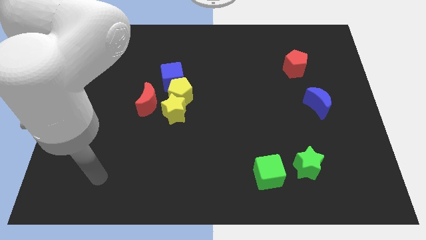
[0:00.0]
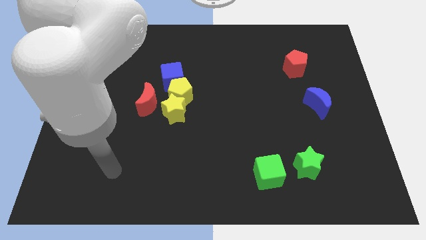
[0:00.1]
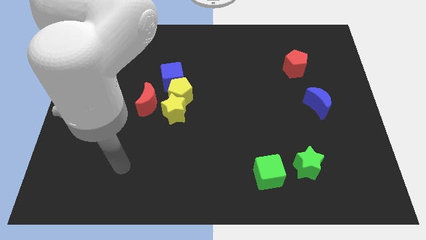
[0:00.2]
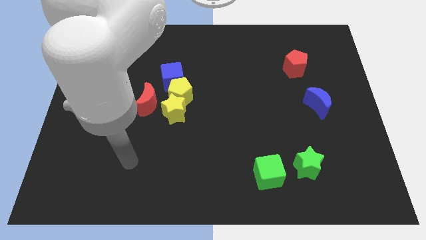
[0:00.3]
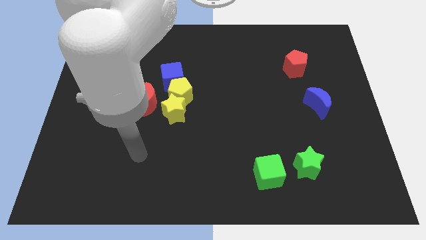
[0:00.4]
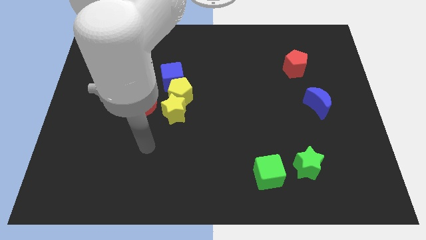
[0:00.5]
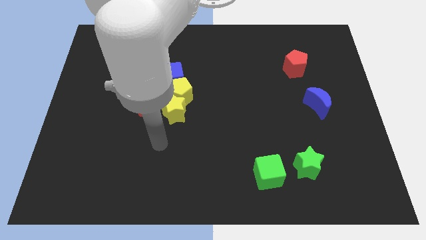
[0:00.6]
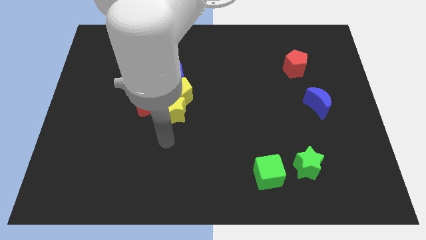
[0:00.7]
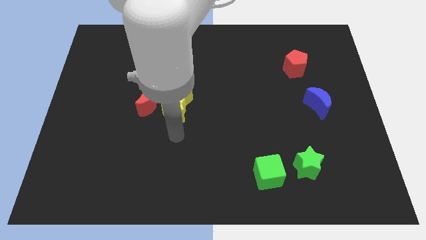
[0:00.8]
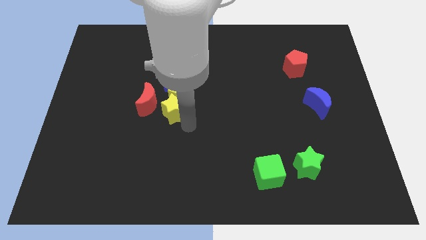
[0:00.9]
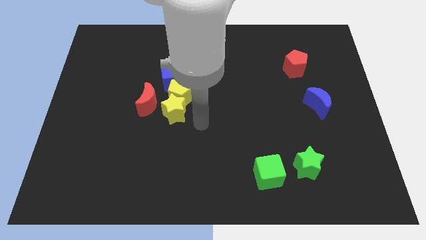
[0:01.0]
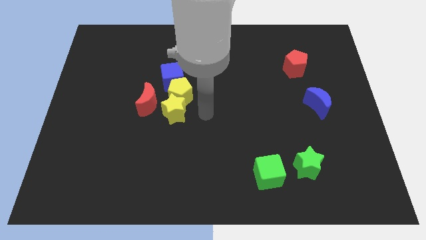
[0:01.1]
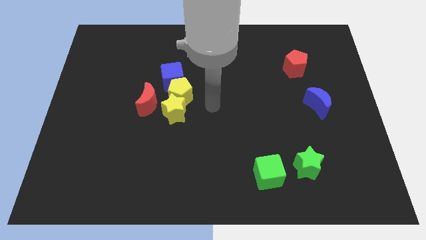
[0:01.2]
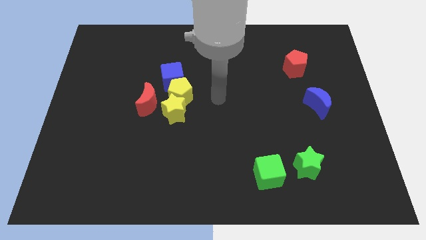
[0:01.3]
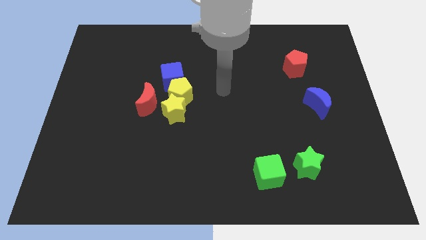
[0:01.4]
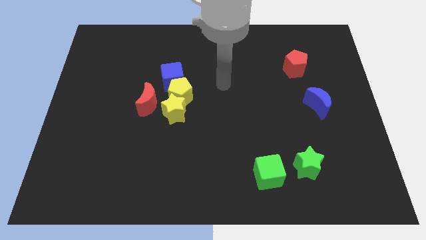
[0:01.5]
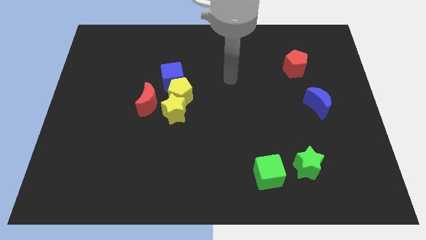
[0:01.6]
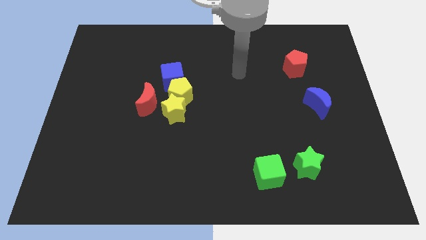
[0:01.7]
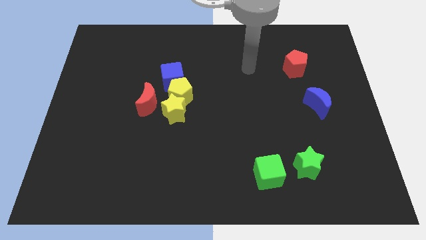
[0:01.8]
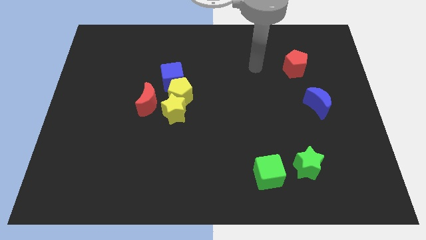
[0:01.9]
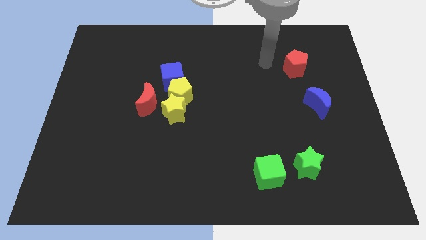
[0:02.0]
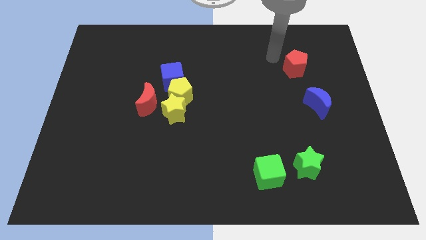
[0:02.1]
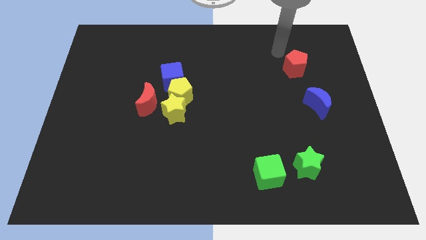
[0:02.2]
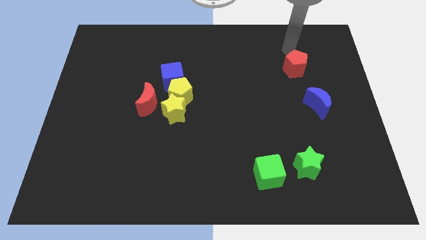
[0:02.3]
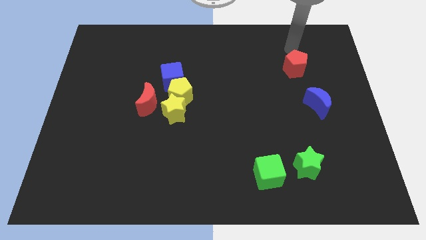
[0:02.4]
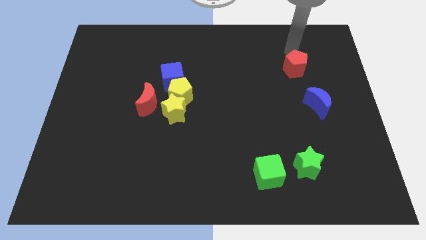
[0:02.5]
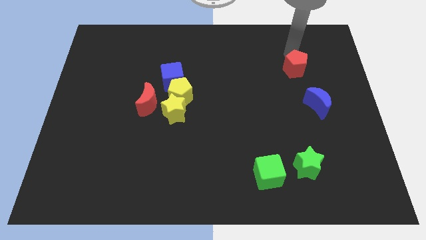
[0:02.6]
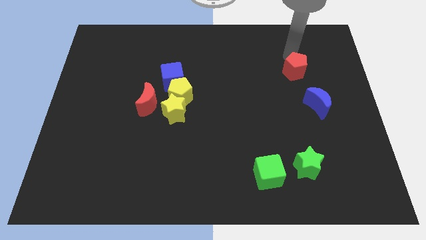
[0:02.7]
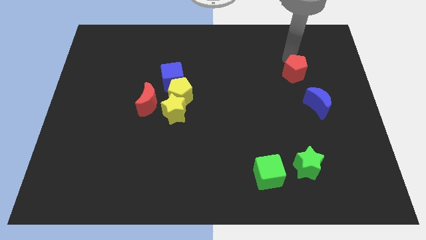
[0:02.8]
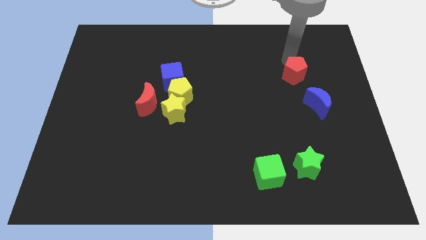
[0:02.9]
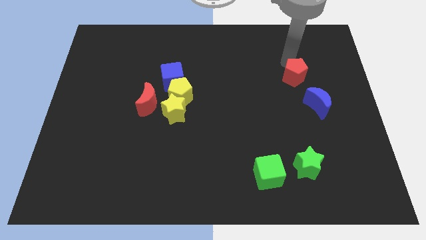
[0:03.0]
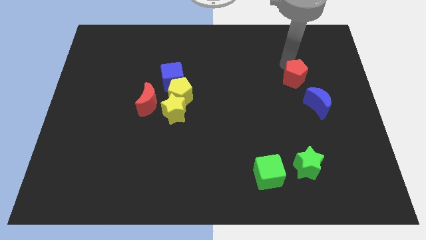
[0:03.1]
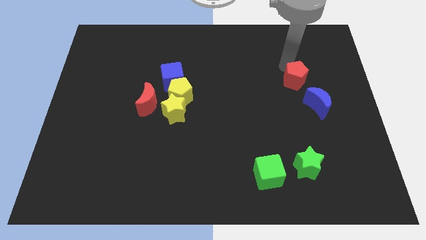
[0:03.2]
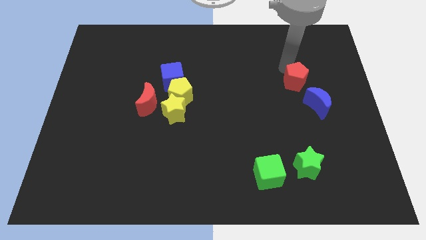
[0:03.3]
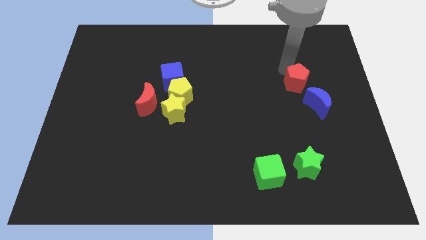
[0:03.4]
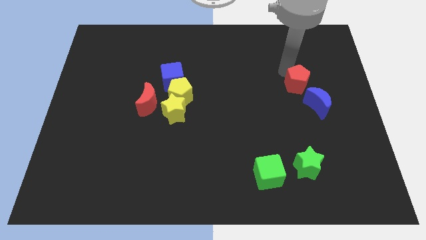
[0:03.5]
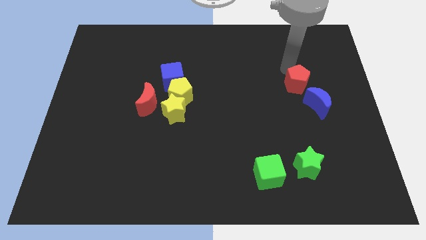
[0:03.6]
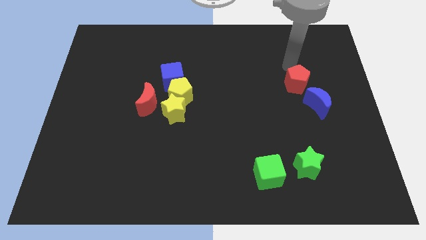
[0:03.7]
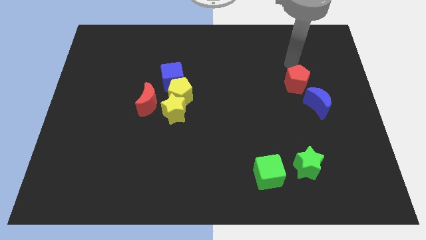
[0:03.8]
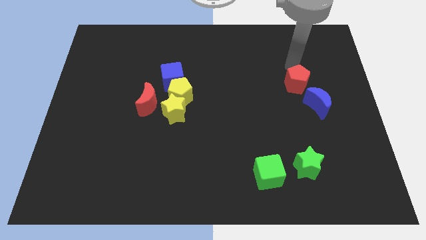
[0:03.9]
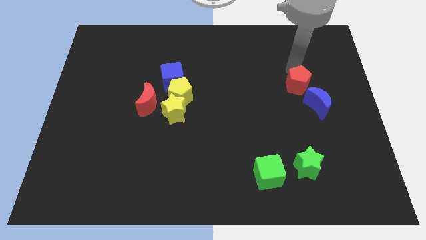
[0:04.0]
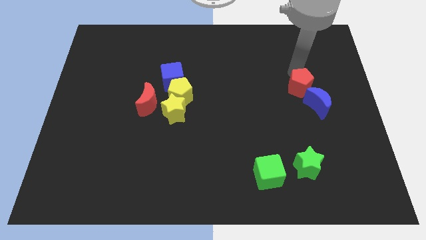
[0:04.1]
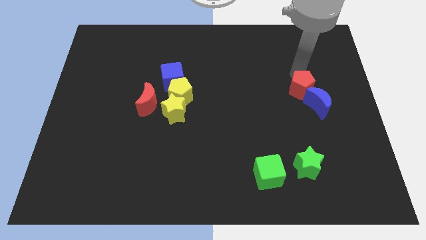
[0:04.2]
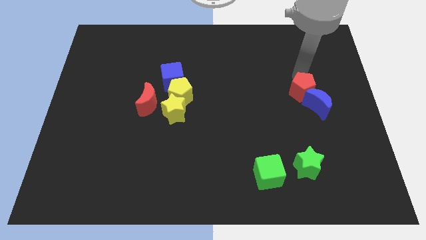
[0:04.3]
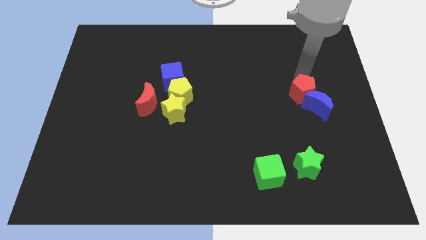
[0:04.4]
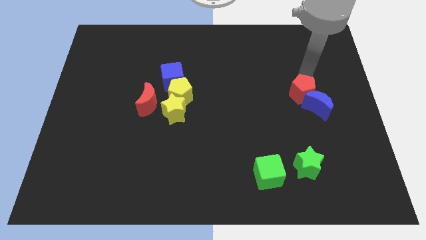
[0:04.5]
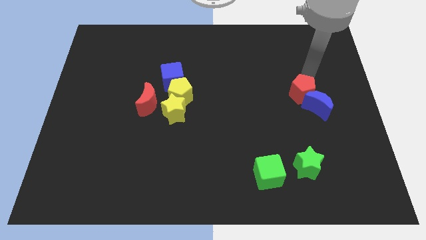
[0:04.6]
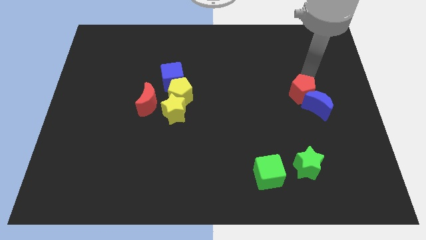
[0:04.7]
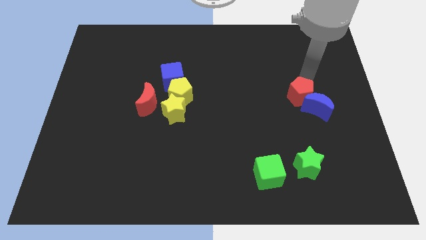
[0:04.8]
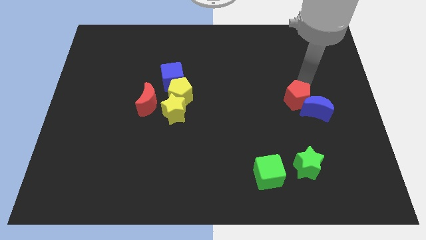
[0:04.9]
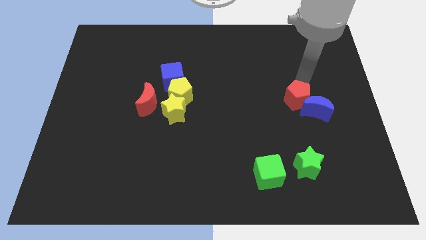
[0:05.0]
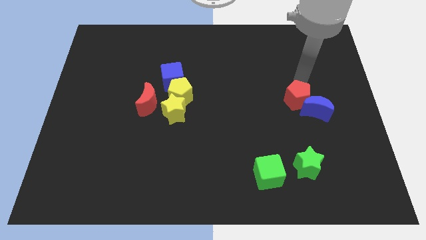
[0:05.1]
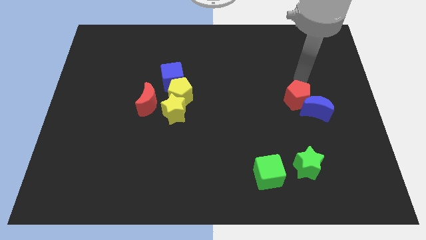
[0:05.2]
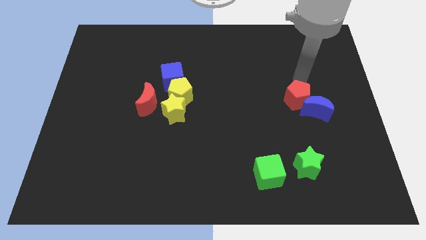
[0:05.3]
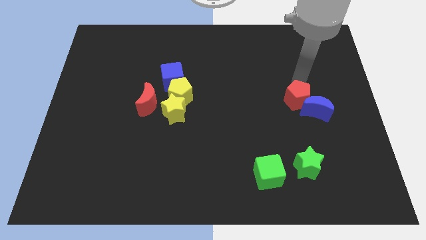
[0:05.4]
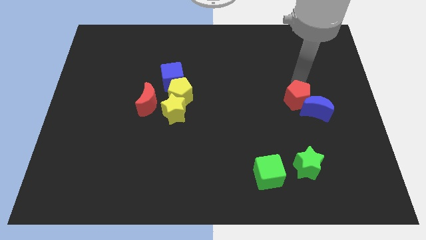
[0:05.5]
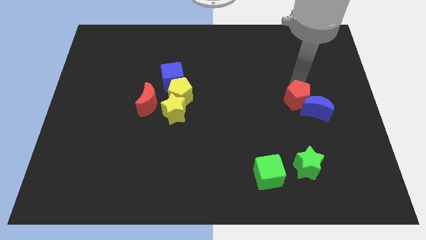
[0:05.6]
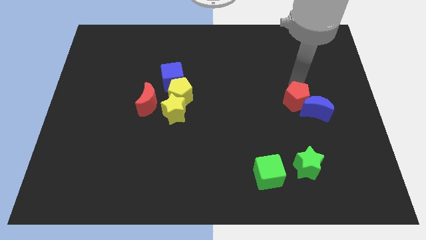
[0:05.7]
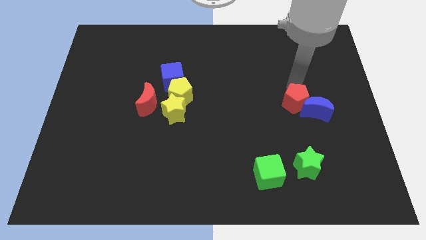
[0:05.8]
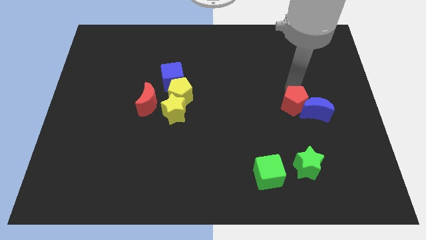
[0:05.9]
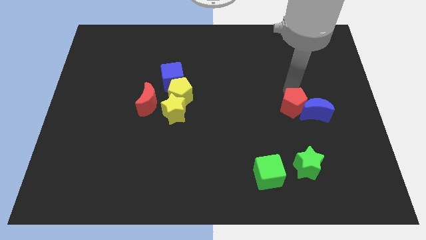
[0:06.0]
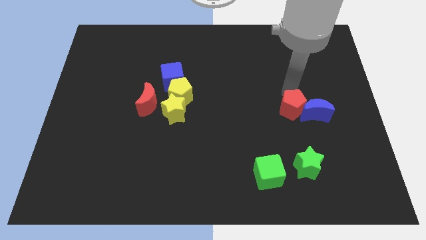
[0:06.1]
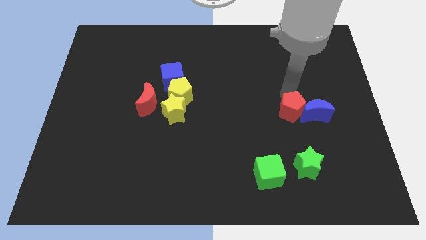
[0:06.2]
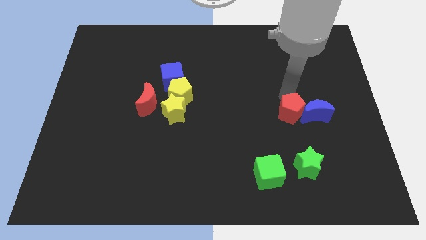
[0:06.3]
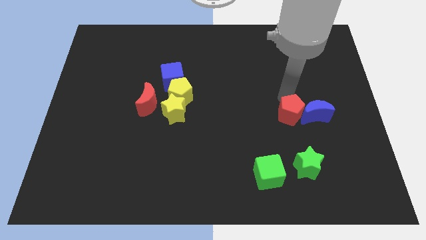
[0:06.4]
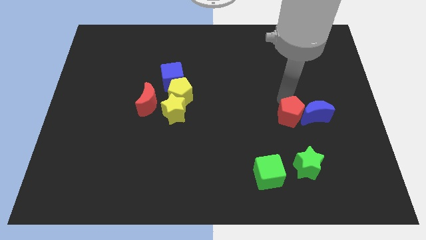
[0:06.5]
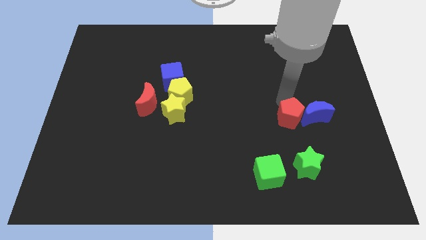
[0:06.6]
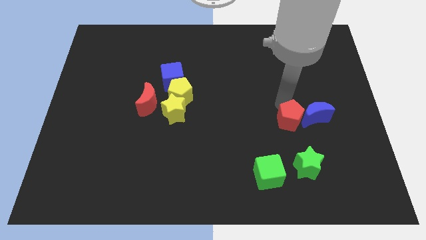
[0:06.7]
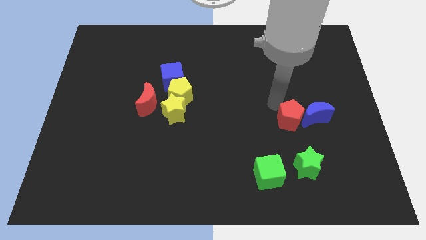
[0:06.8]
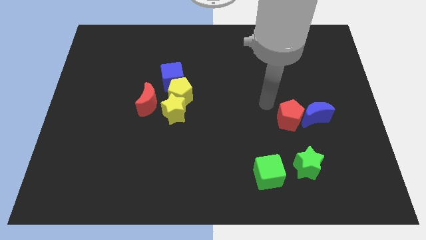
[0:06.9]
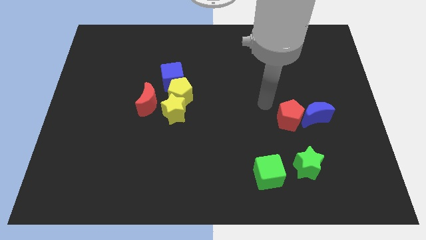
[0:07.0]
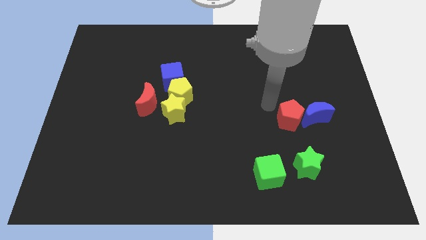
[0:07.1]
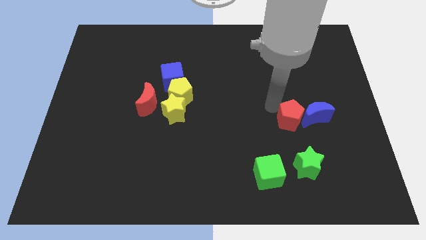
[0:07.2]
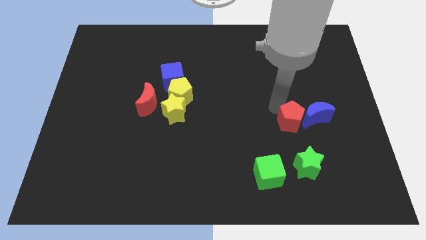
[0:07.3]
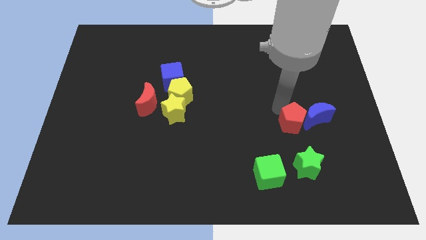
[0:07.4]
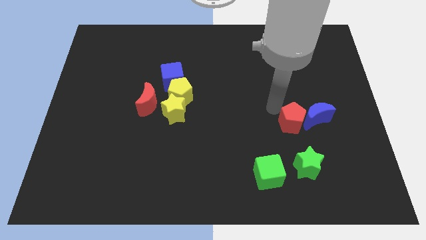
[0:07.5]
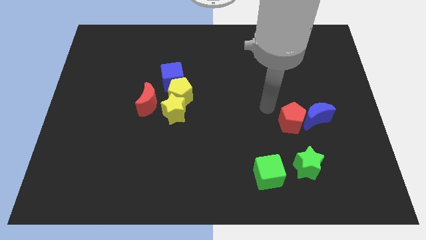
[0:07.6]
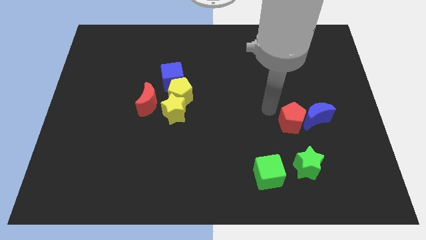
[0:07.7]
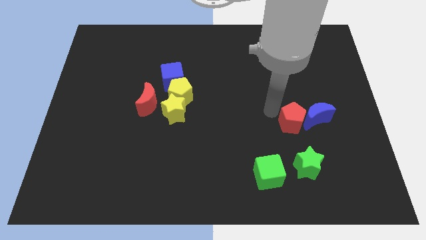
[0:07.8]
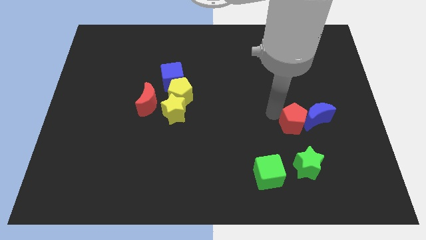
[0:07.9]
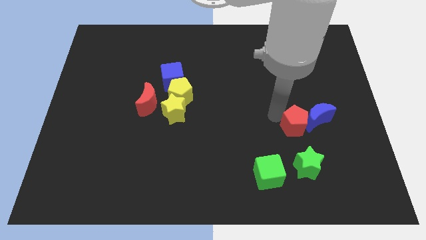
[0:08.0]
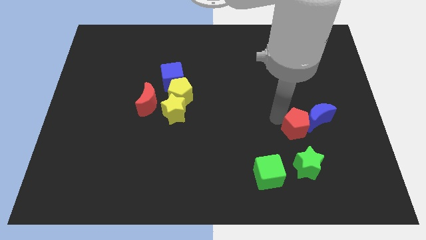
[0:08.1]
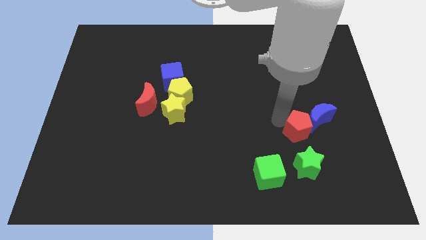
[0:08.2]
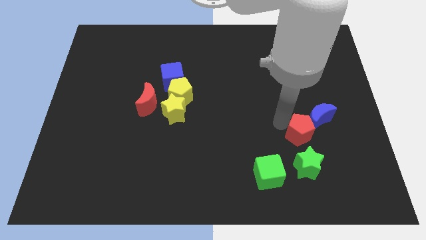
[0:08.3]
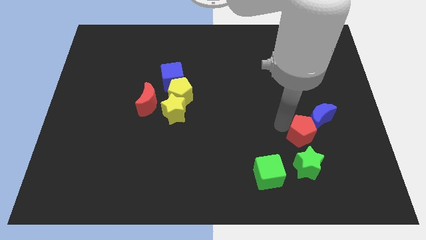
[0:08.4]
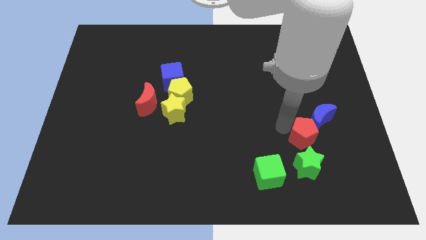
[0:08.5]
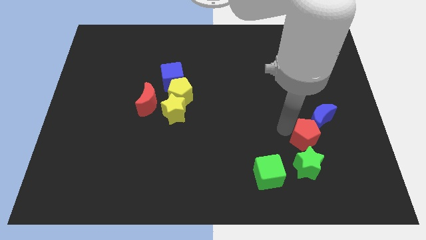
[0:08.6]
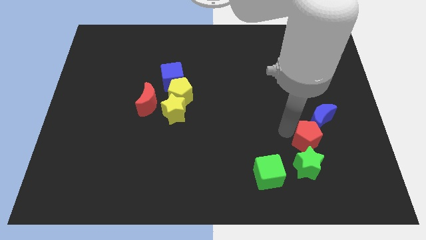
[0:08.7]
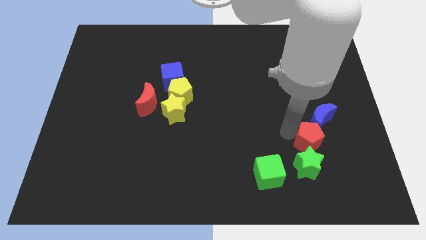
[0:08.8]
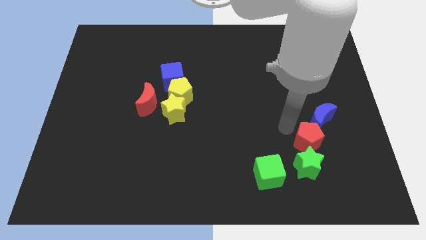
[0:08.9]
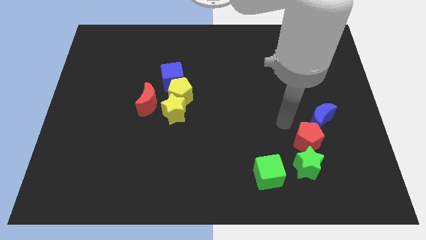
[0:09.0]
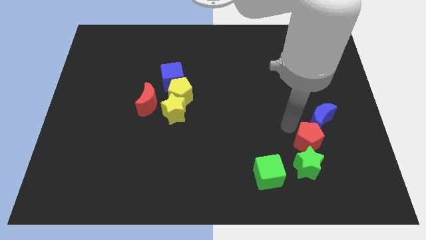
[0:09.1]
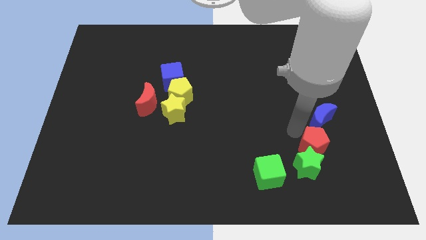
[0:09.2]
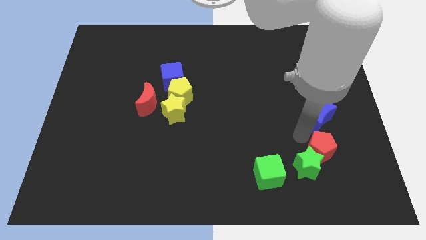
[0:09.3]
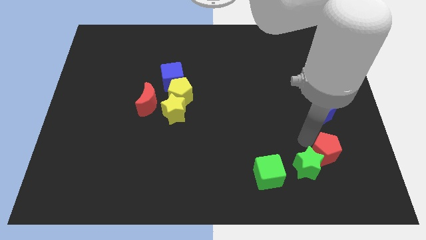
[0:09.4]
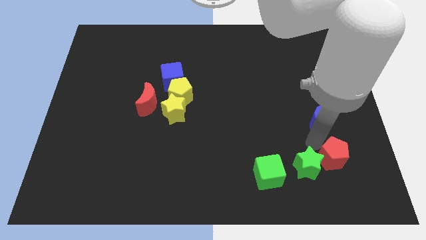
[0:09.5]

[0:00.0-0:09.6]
move the red pentagon just right of the green cube
